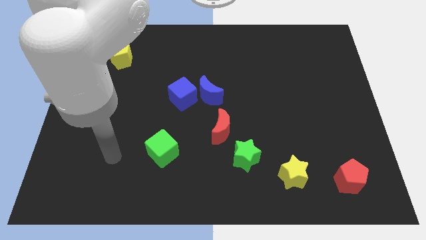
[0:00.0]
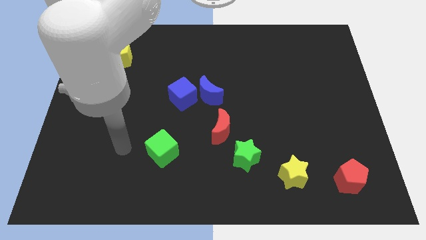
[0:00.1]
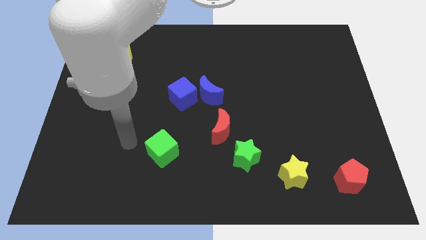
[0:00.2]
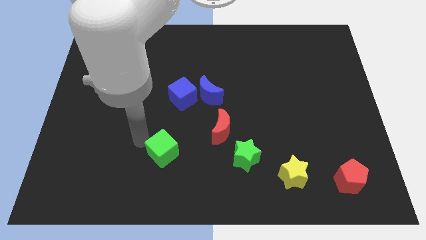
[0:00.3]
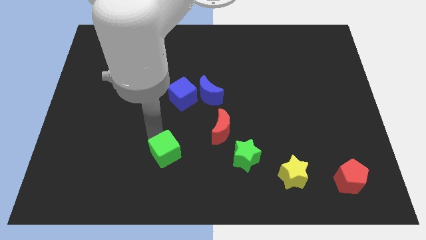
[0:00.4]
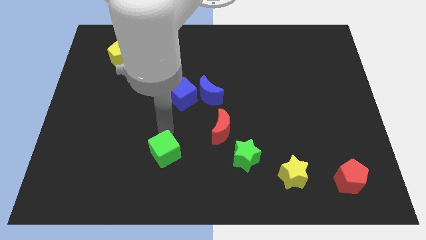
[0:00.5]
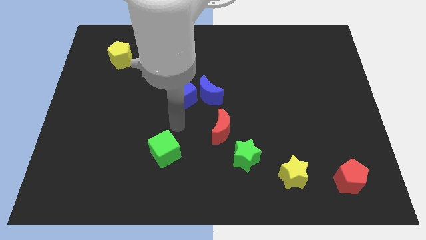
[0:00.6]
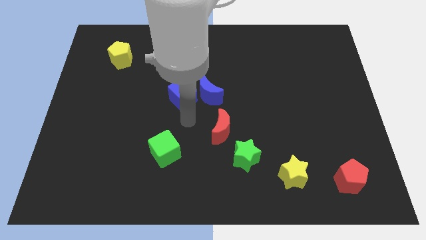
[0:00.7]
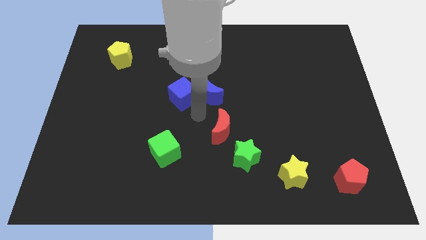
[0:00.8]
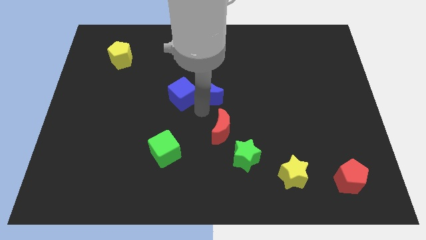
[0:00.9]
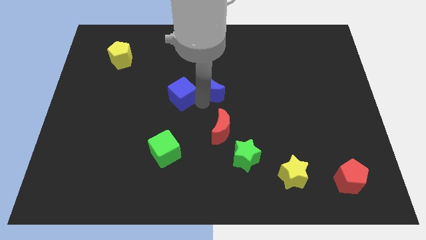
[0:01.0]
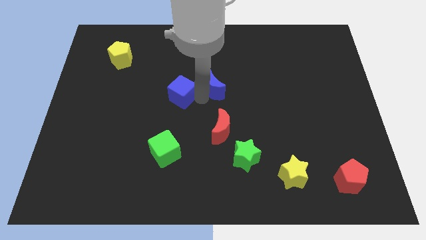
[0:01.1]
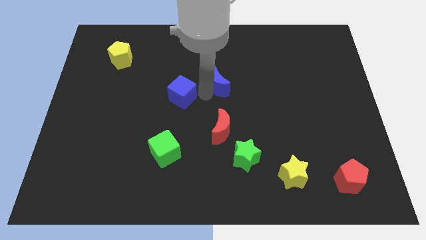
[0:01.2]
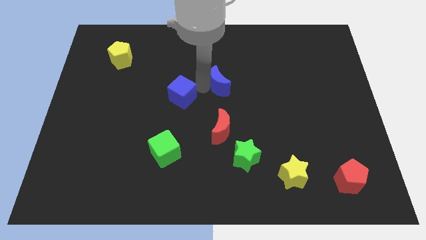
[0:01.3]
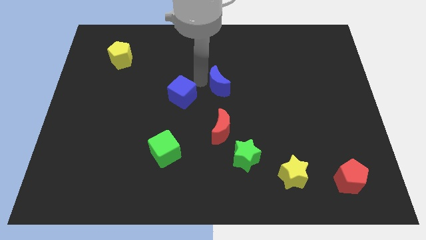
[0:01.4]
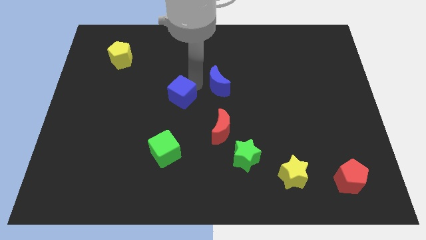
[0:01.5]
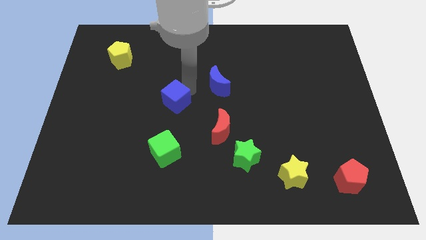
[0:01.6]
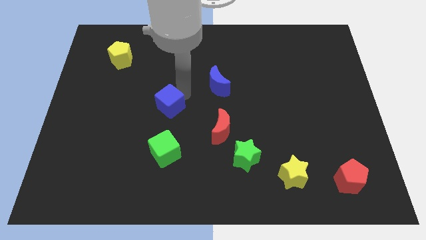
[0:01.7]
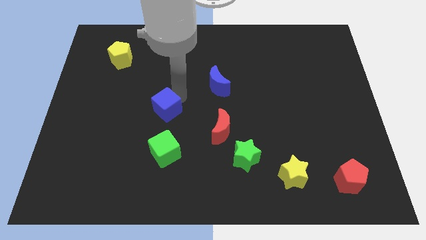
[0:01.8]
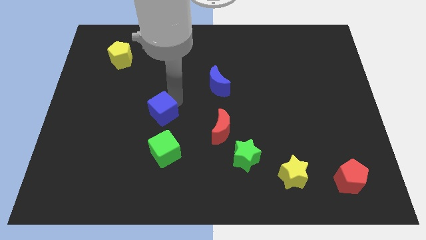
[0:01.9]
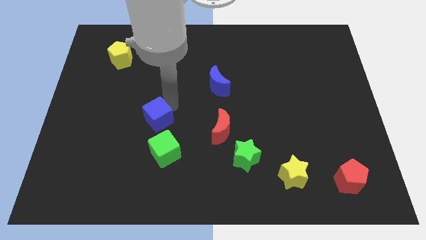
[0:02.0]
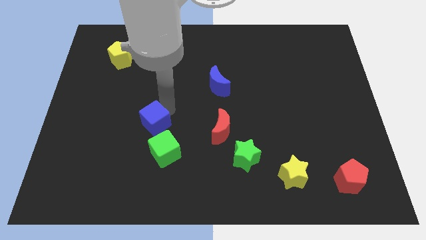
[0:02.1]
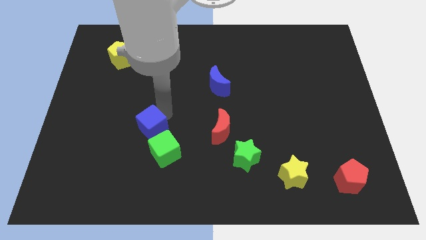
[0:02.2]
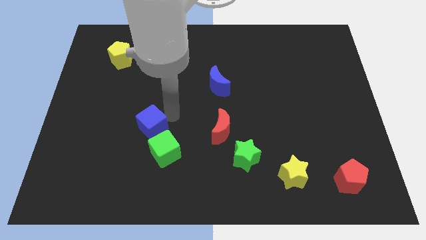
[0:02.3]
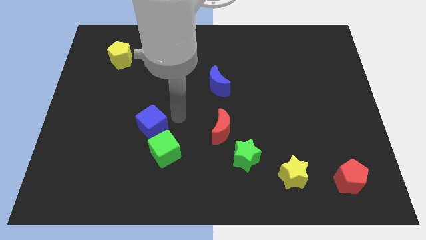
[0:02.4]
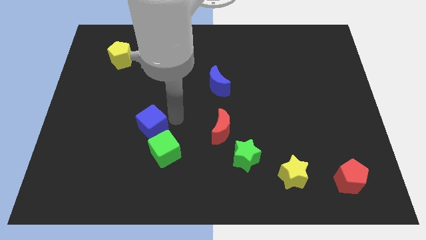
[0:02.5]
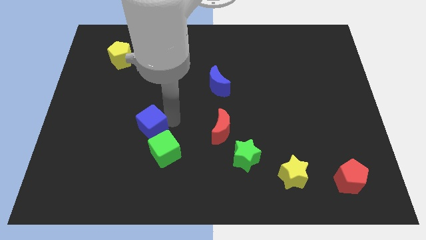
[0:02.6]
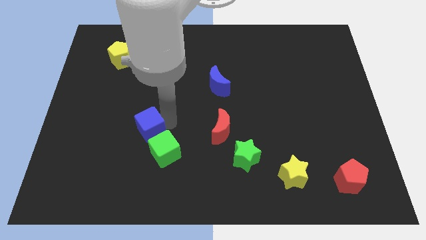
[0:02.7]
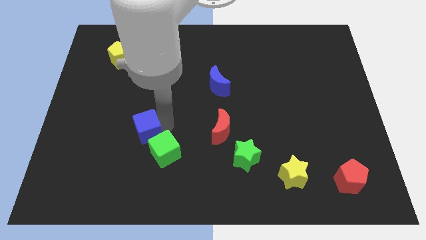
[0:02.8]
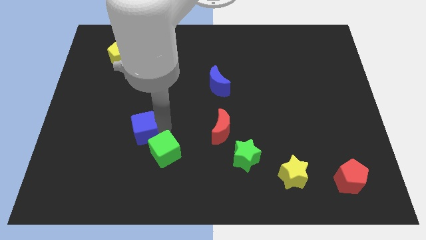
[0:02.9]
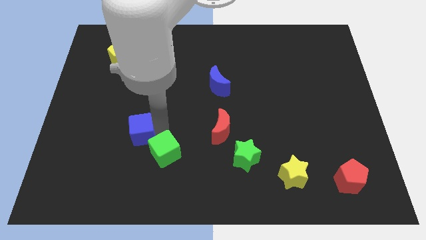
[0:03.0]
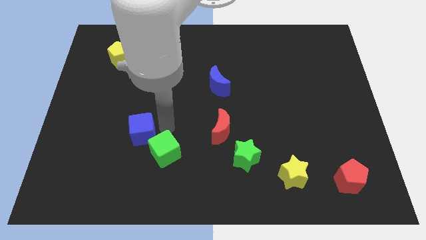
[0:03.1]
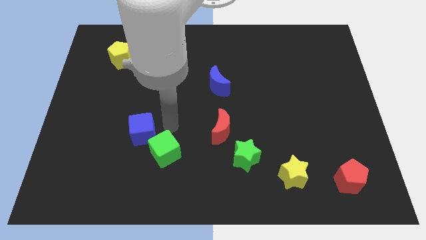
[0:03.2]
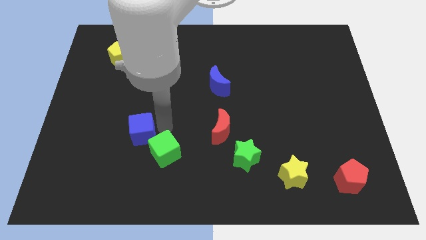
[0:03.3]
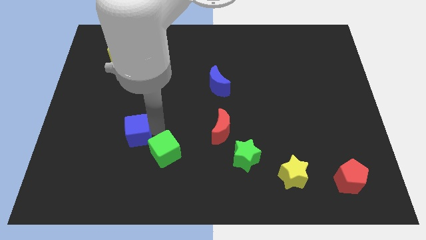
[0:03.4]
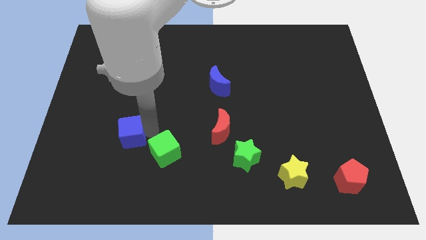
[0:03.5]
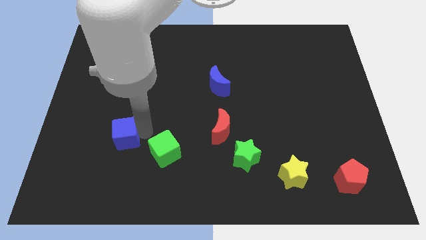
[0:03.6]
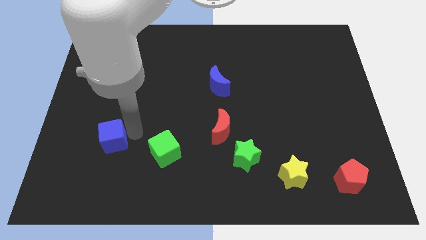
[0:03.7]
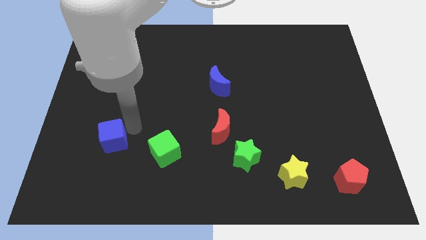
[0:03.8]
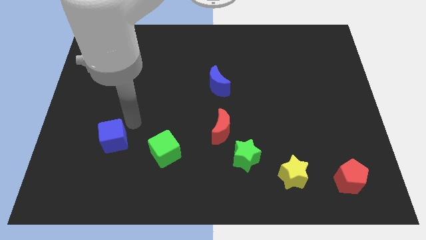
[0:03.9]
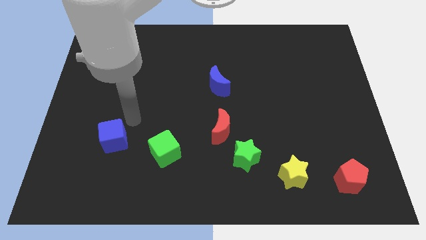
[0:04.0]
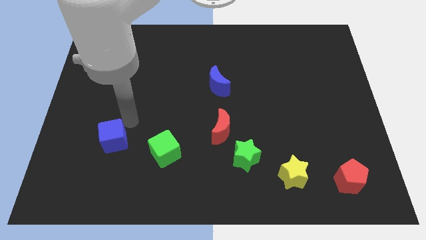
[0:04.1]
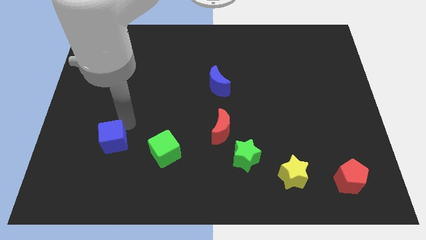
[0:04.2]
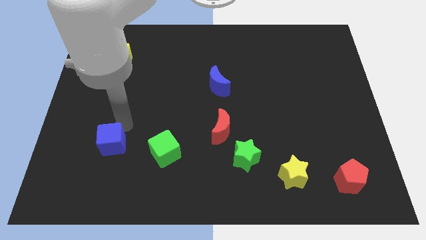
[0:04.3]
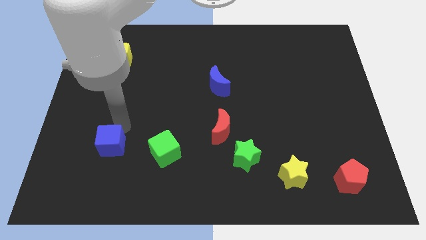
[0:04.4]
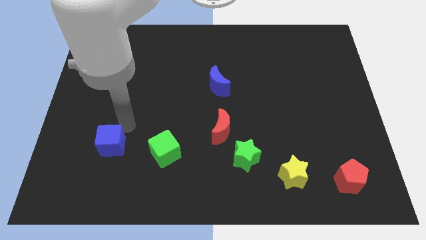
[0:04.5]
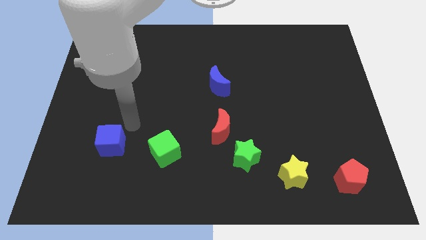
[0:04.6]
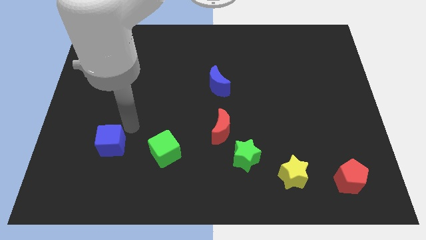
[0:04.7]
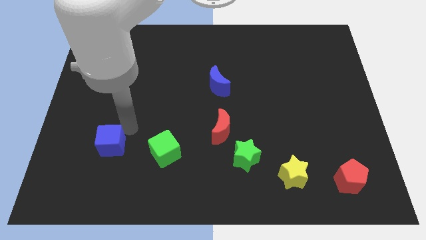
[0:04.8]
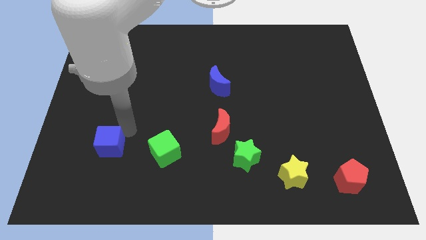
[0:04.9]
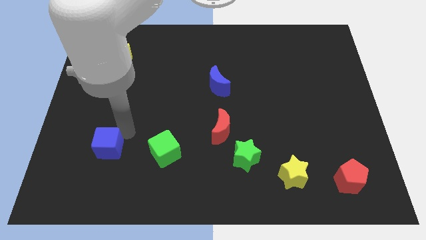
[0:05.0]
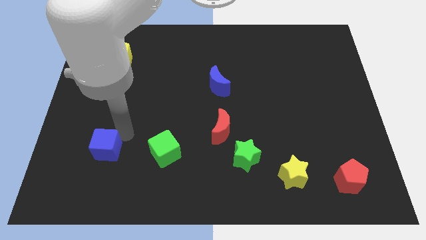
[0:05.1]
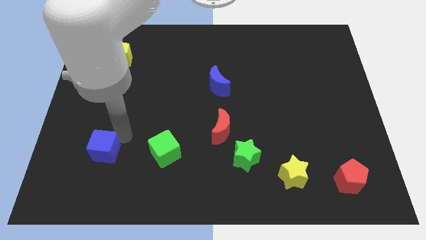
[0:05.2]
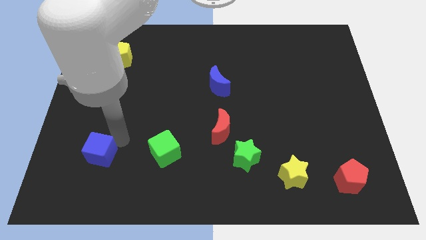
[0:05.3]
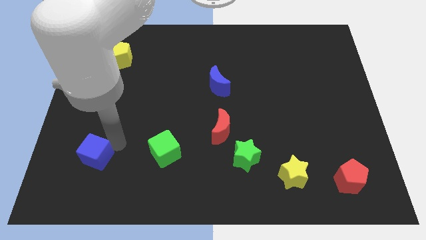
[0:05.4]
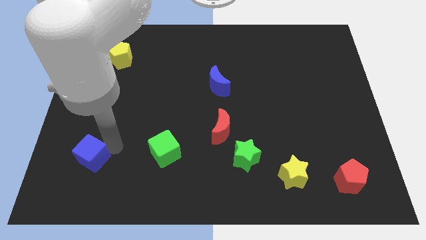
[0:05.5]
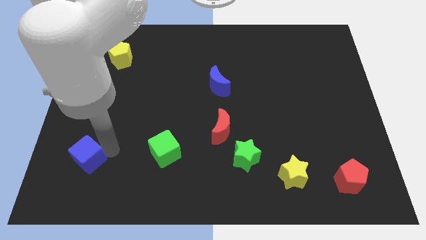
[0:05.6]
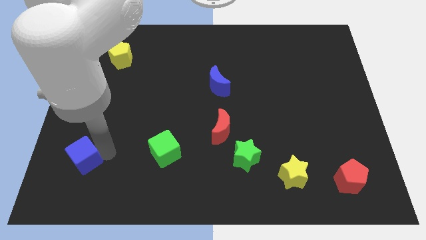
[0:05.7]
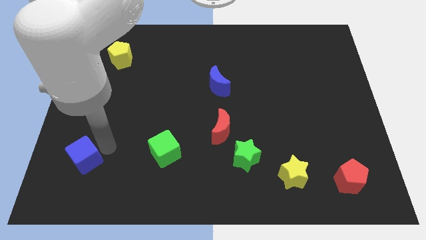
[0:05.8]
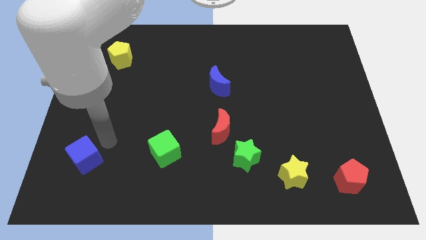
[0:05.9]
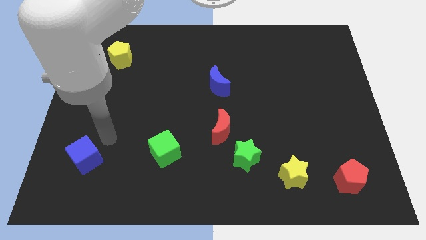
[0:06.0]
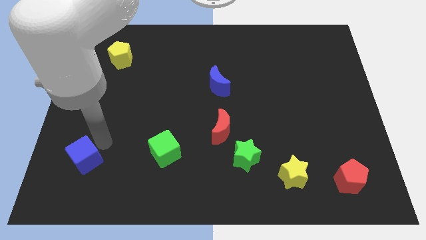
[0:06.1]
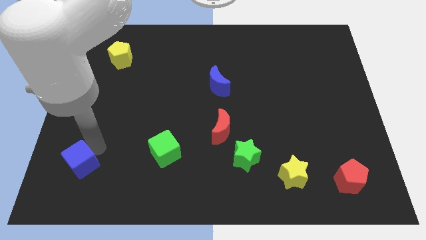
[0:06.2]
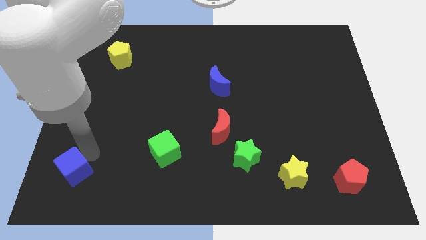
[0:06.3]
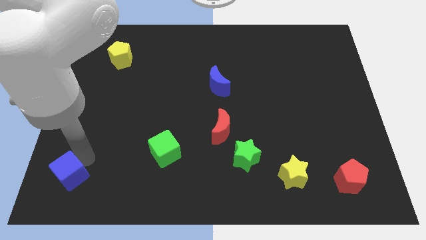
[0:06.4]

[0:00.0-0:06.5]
slide the blue cube to the lower left corner

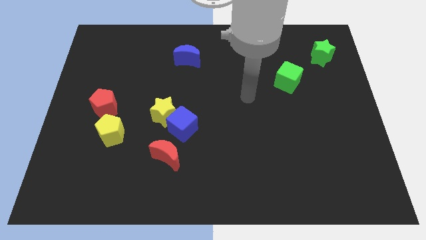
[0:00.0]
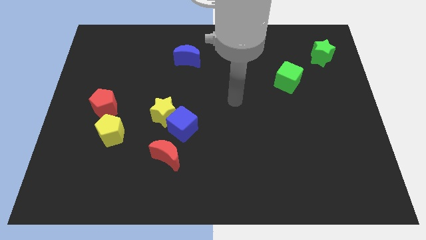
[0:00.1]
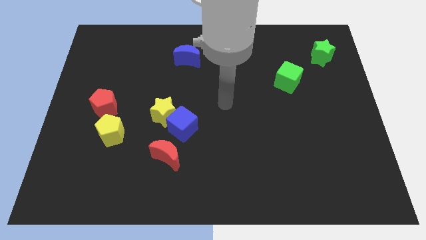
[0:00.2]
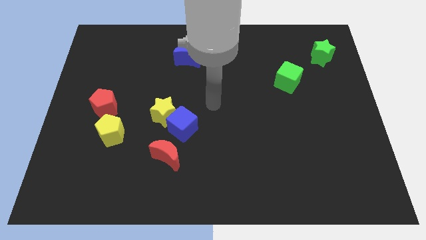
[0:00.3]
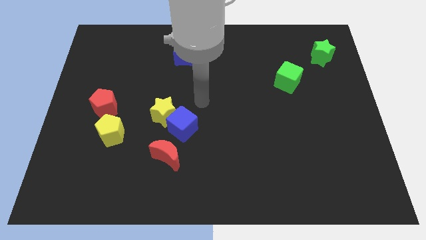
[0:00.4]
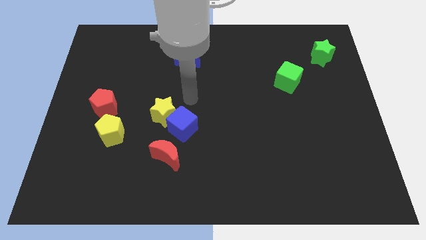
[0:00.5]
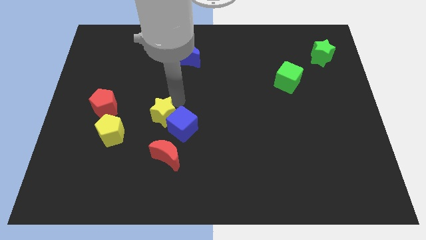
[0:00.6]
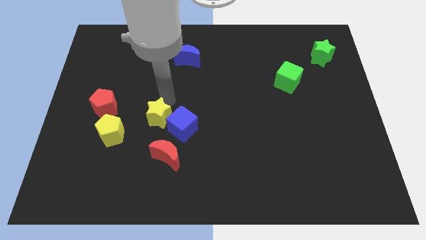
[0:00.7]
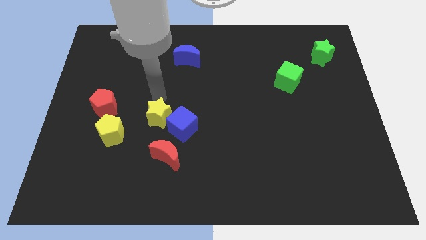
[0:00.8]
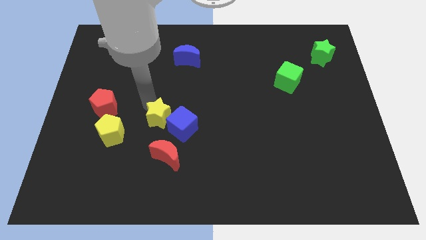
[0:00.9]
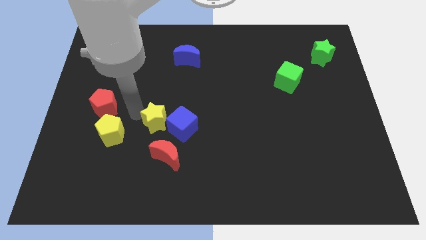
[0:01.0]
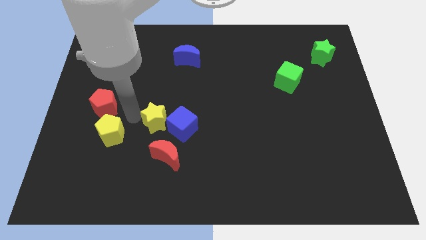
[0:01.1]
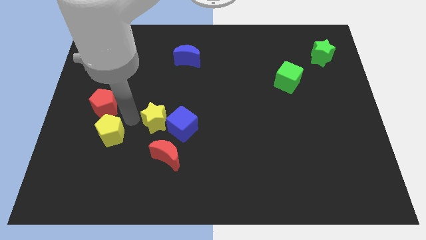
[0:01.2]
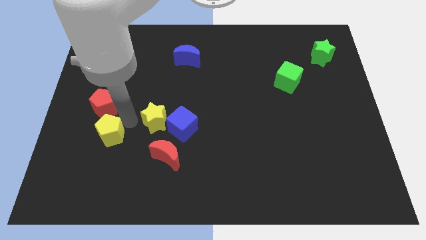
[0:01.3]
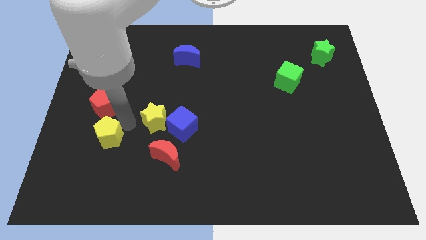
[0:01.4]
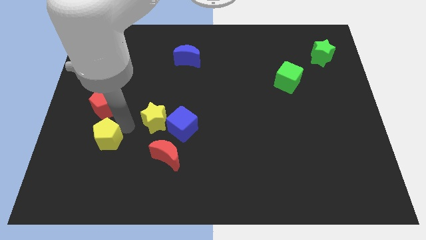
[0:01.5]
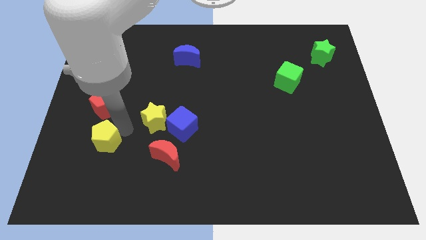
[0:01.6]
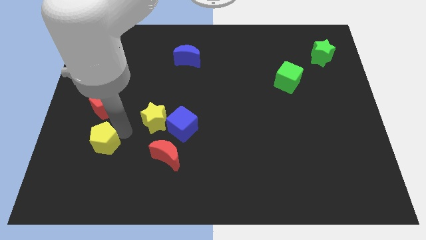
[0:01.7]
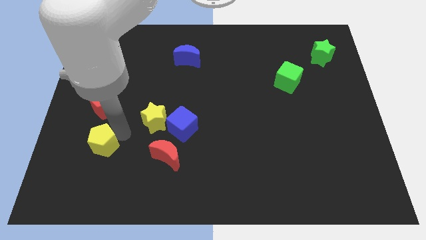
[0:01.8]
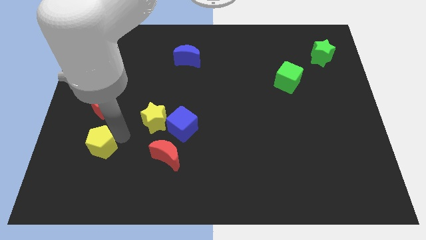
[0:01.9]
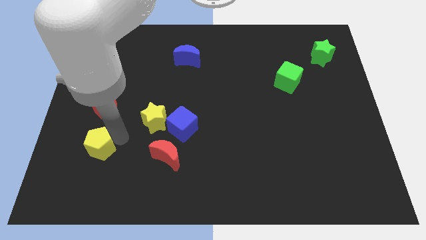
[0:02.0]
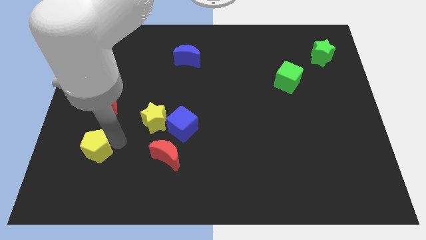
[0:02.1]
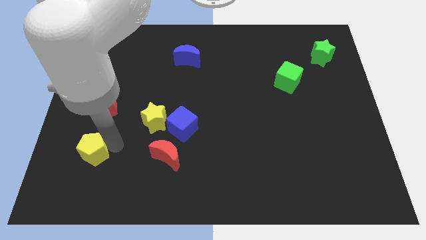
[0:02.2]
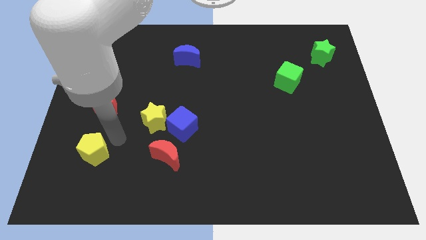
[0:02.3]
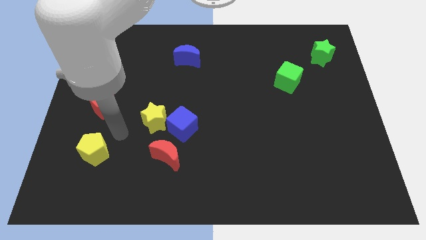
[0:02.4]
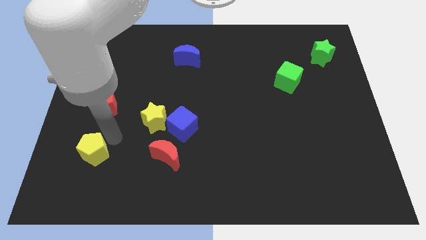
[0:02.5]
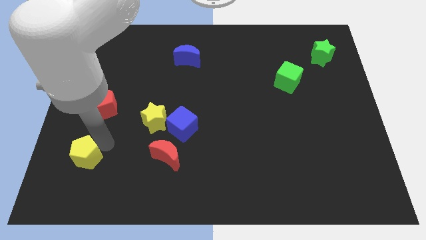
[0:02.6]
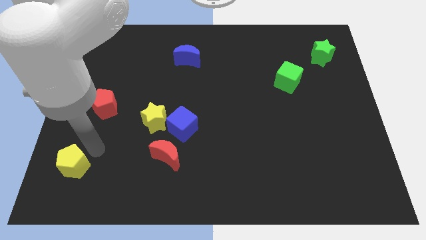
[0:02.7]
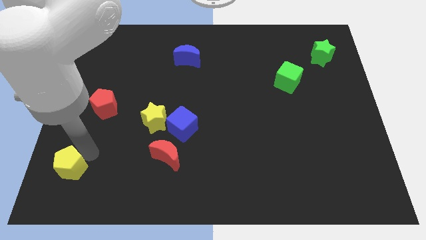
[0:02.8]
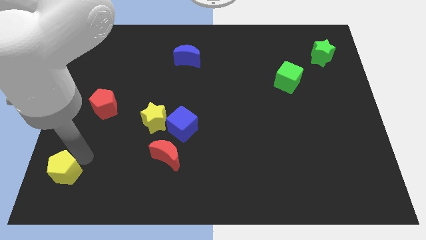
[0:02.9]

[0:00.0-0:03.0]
slide the yellow pentagon to the bottom left of the board
